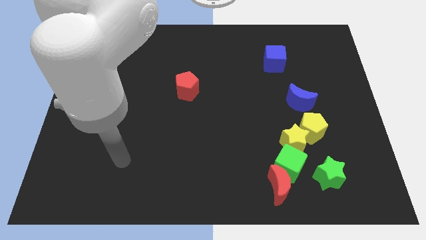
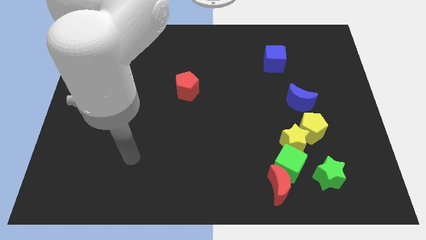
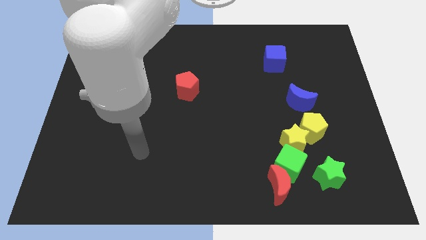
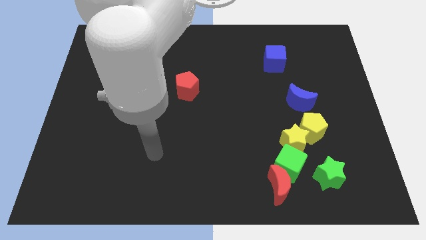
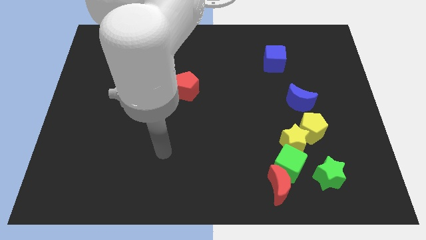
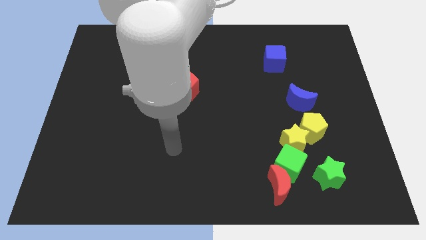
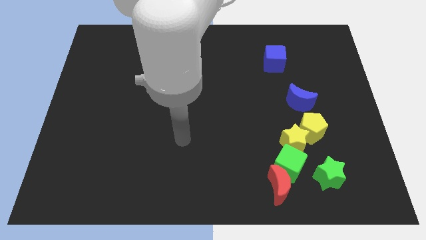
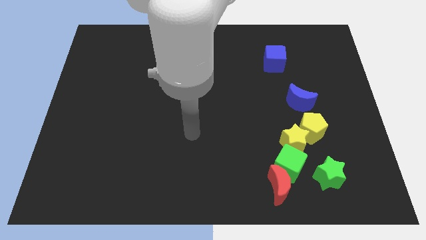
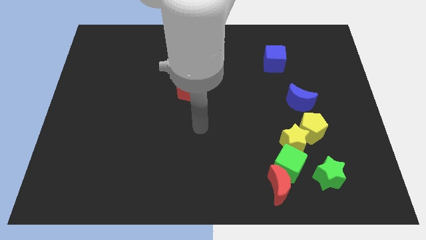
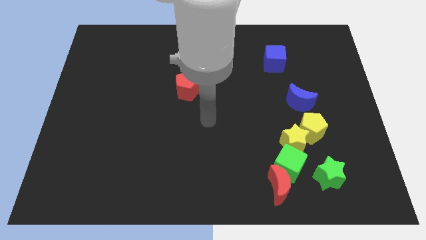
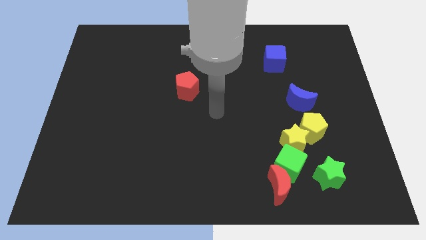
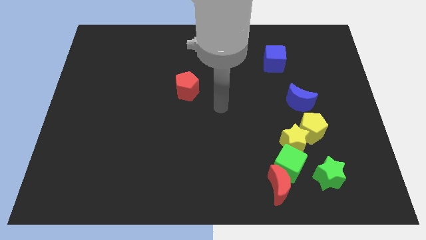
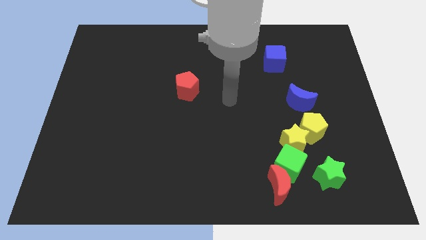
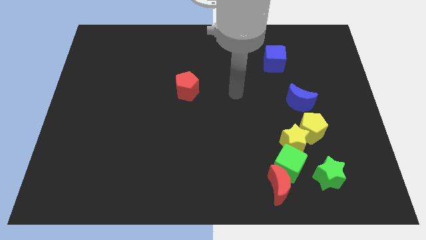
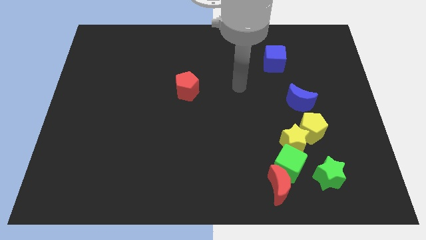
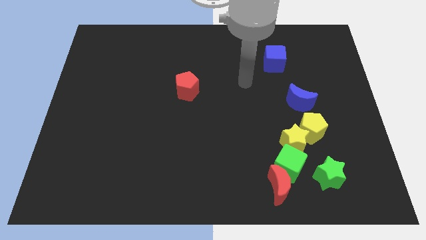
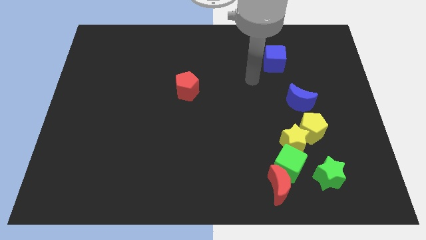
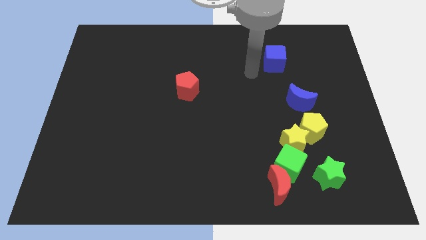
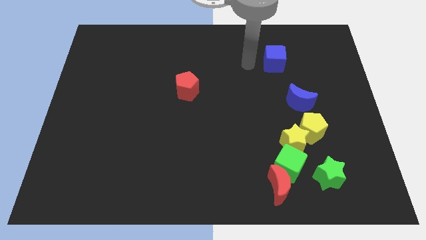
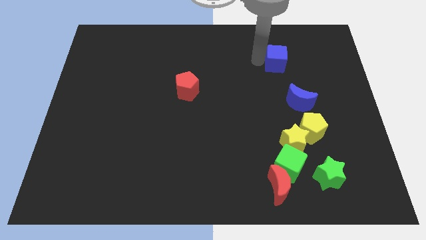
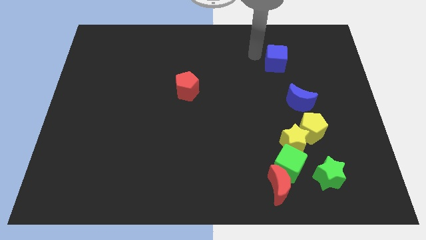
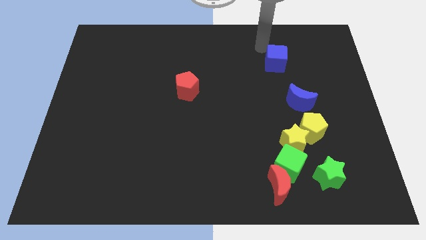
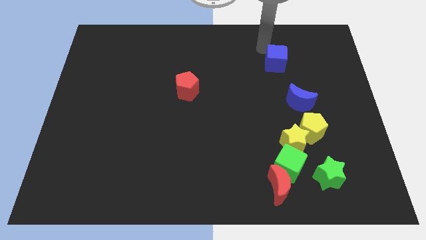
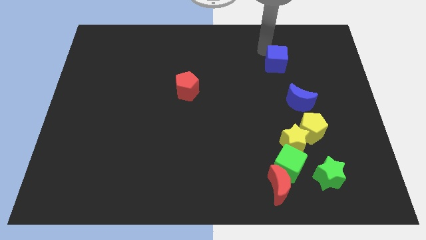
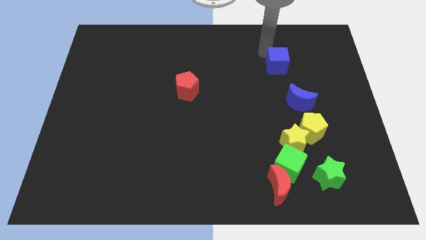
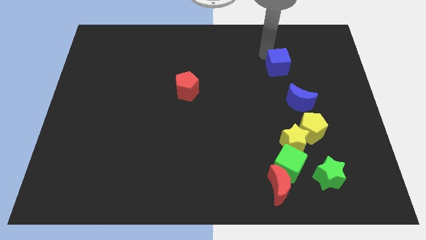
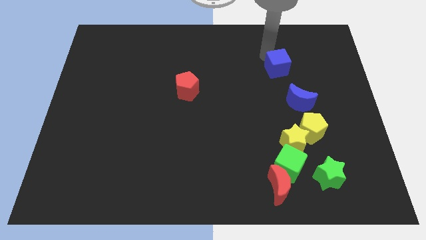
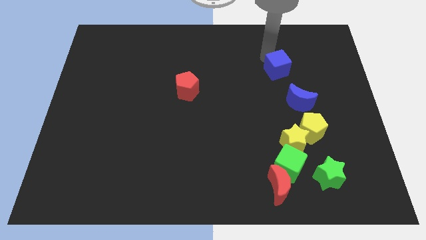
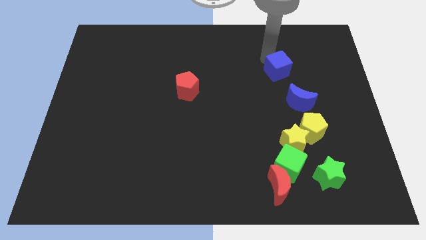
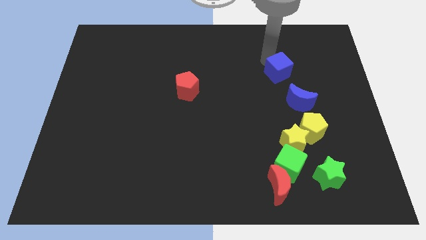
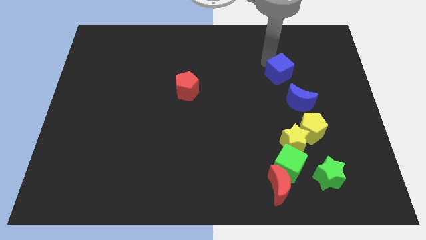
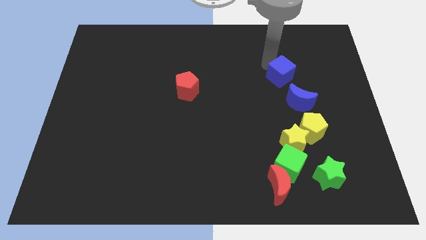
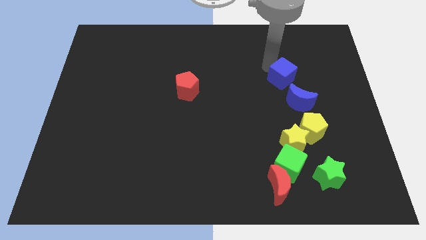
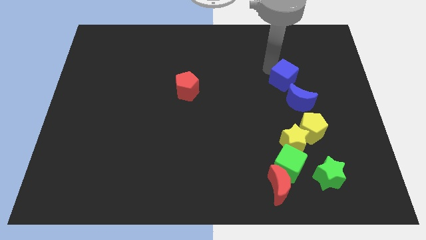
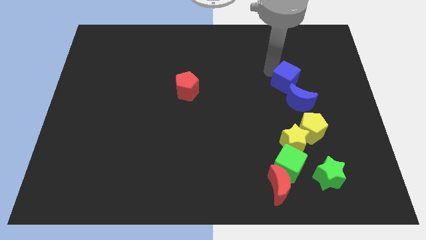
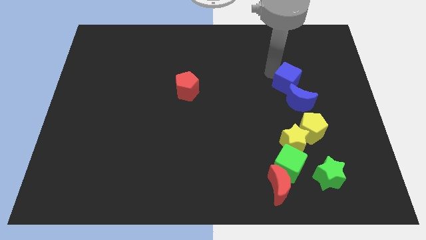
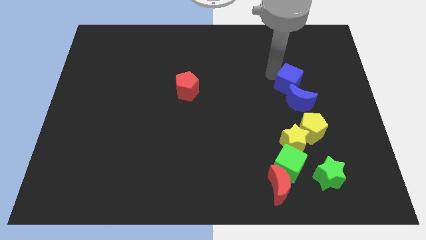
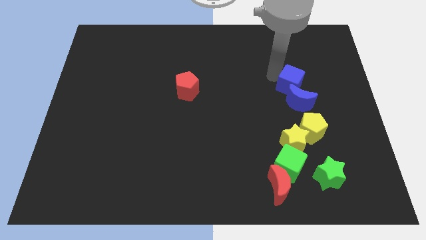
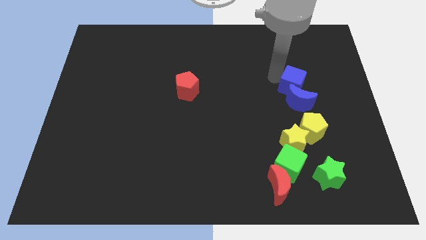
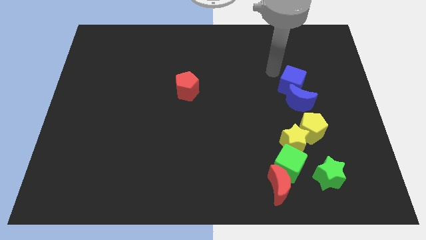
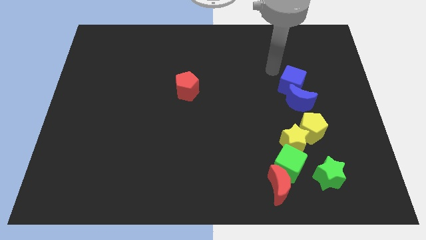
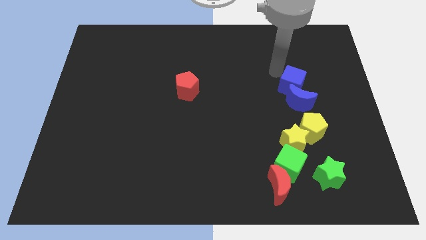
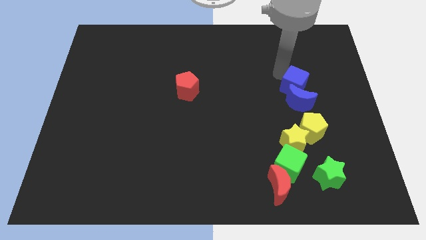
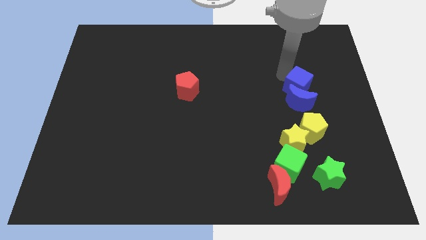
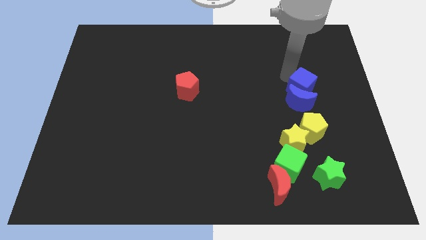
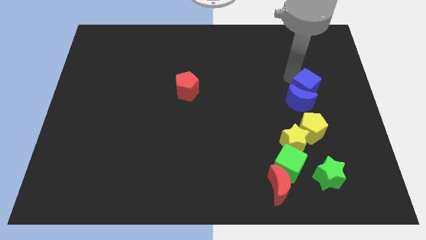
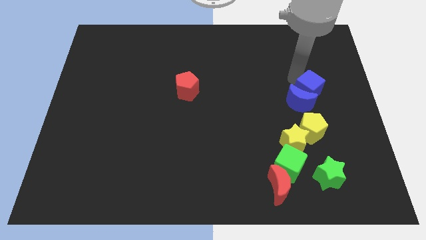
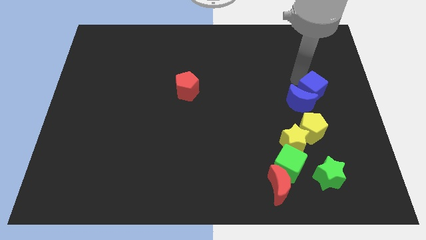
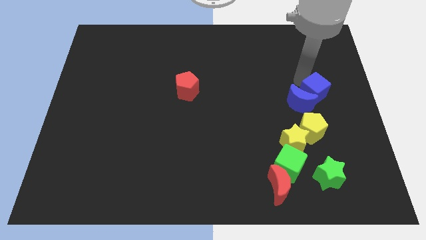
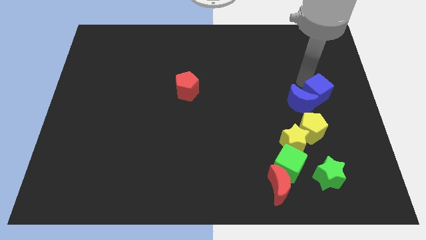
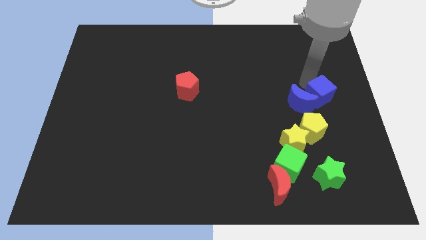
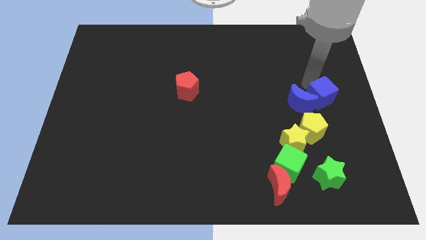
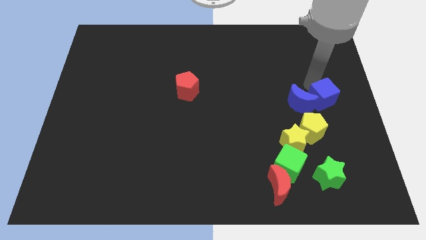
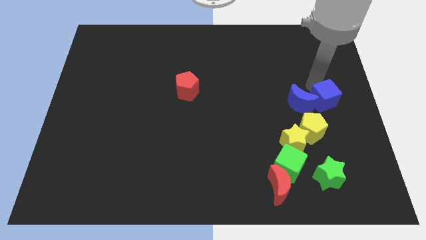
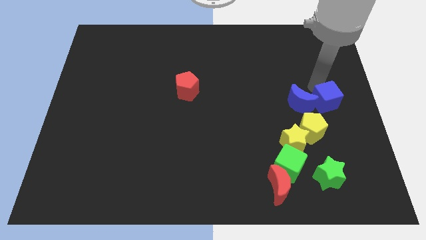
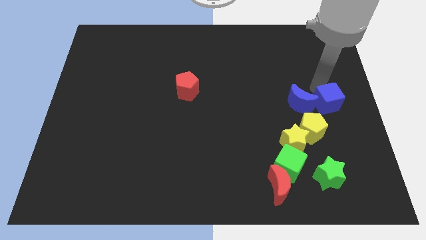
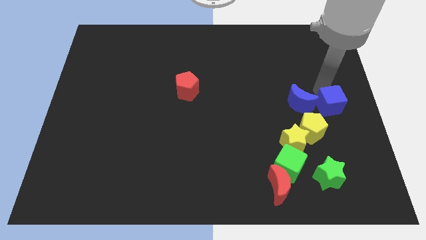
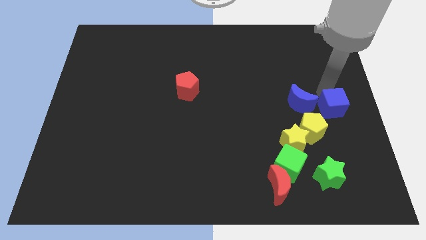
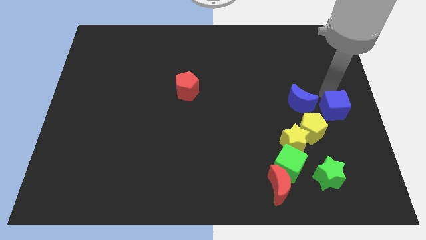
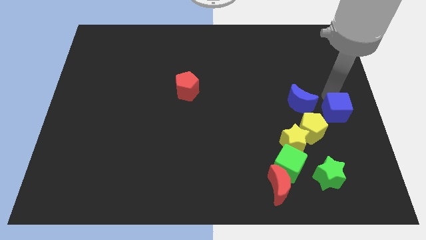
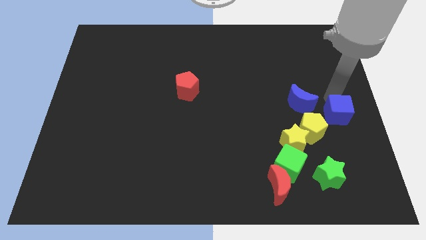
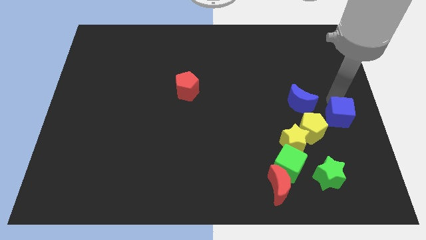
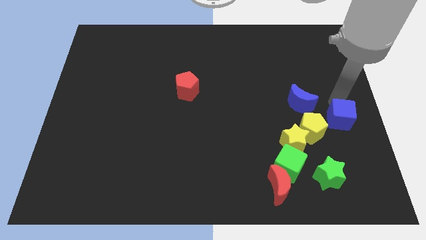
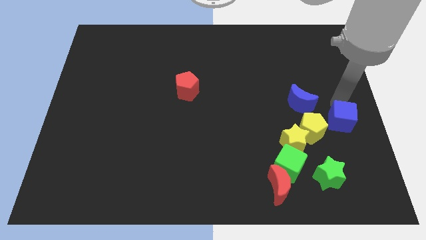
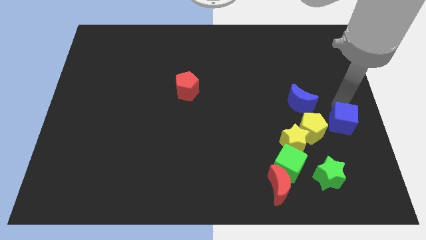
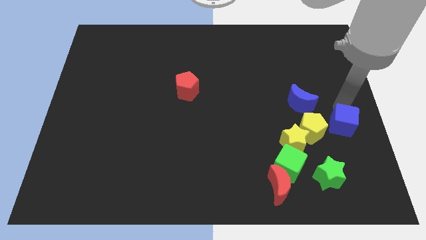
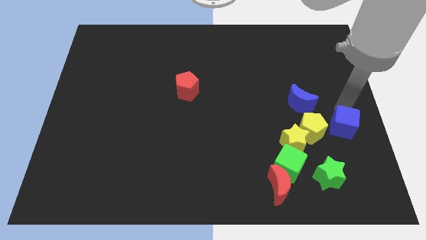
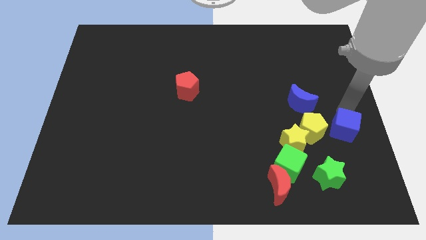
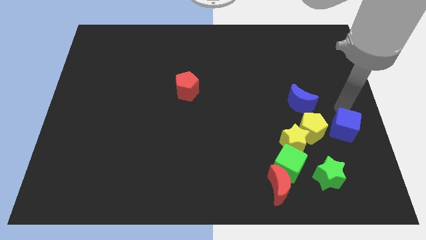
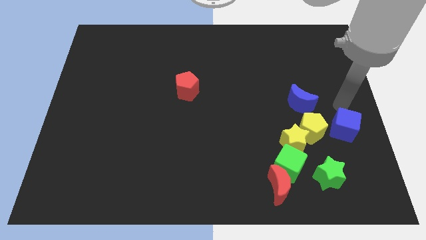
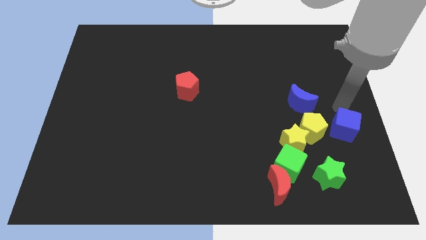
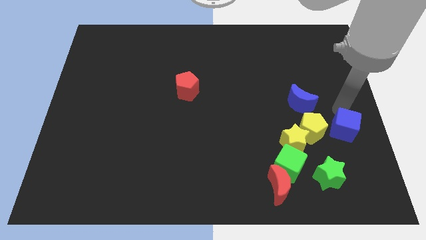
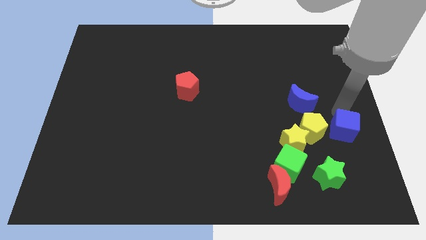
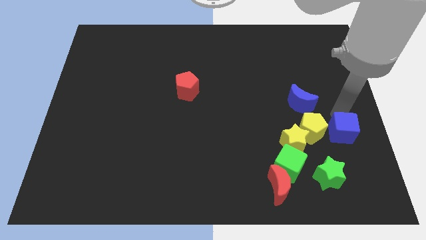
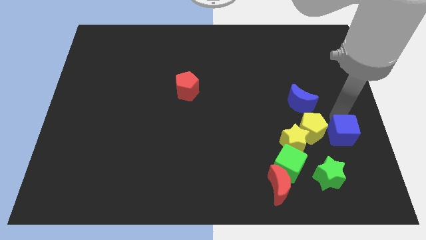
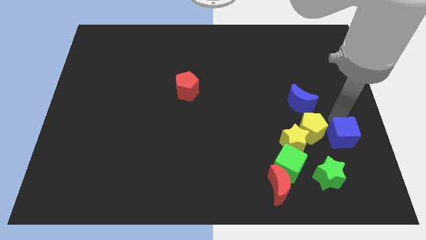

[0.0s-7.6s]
push the blue cube to the top right of the green star

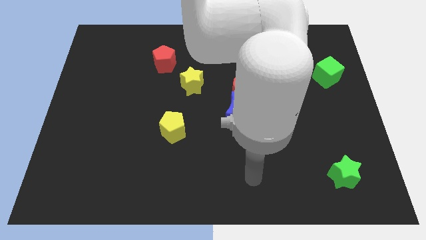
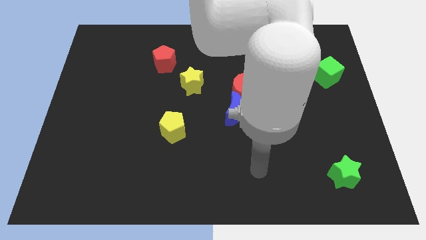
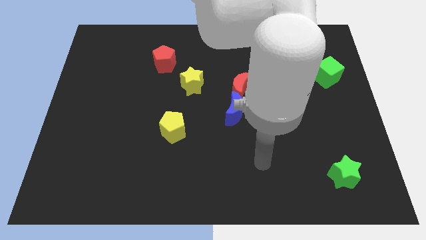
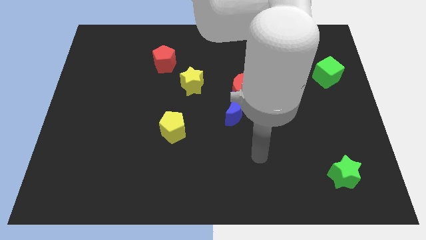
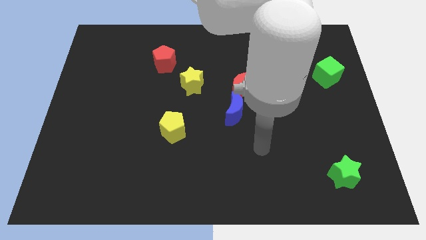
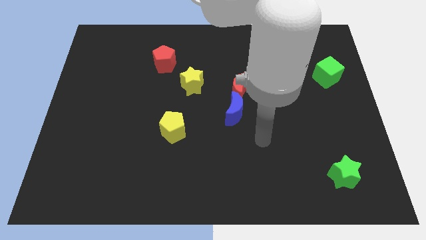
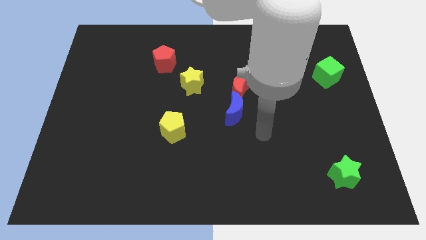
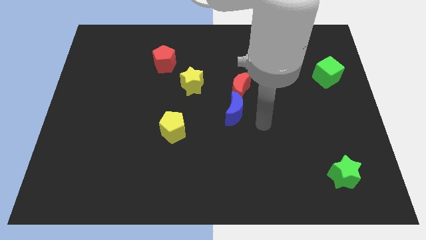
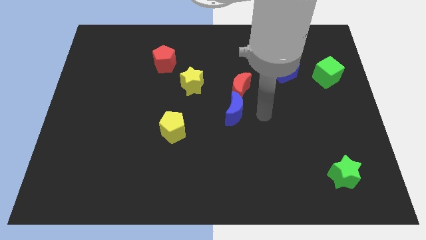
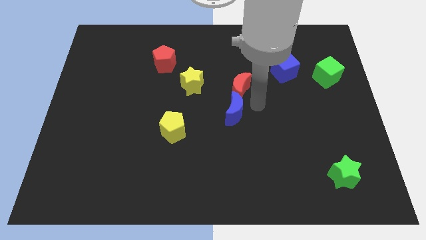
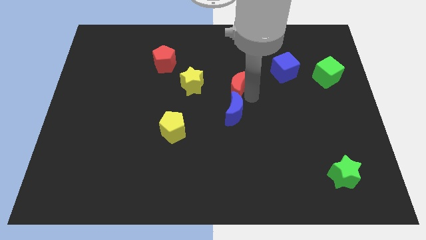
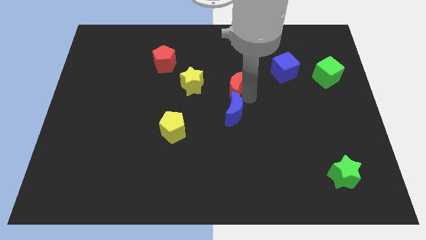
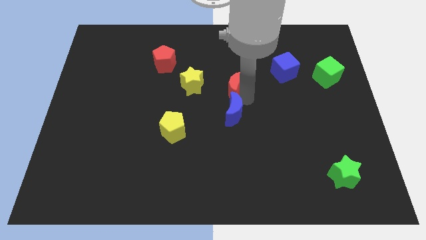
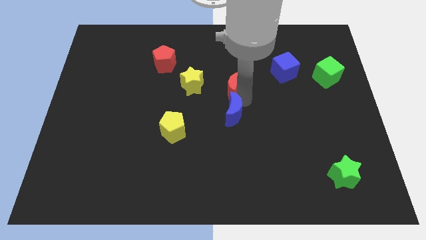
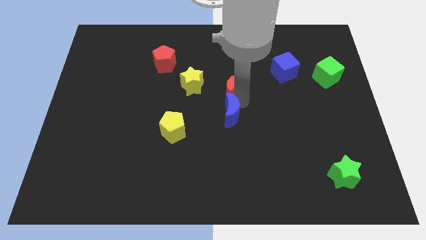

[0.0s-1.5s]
move the blue moon to the right of the yellow pentagon
